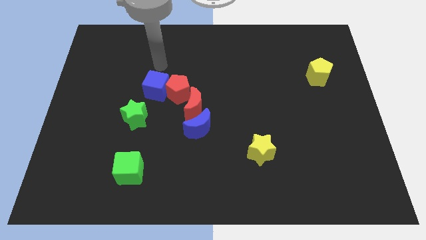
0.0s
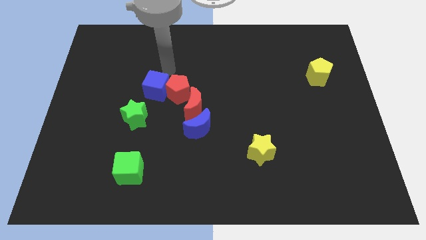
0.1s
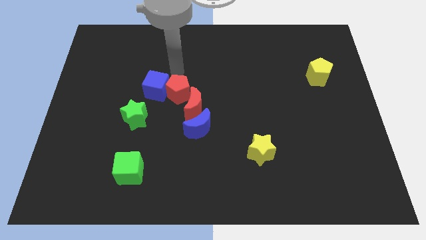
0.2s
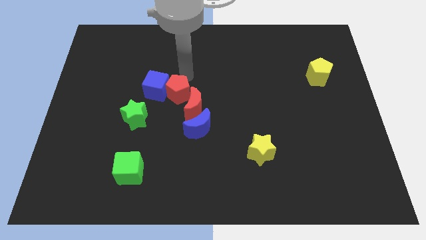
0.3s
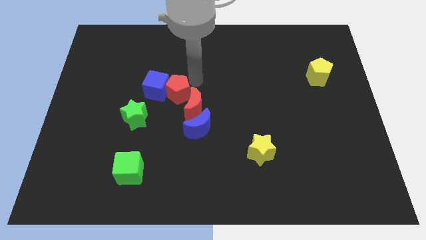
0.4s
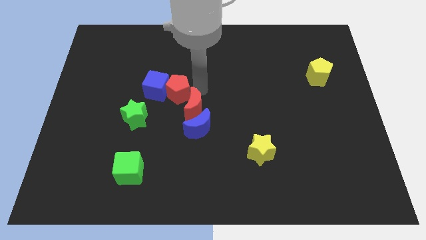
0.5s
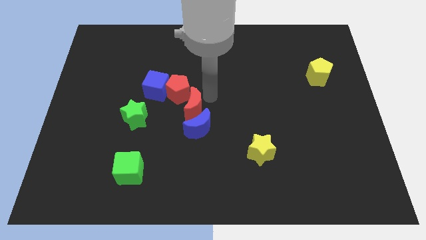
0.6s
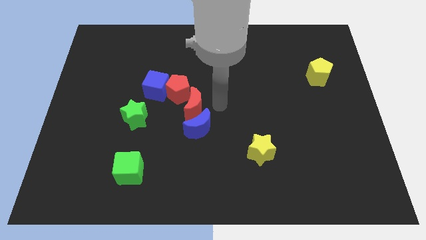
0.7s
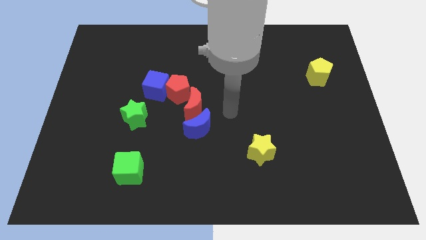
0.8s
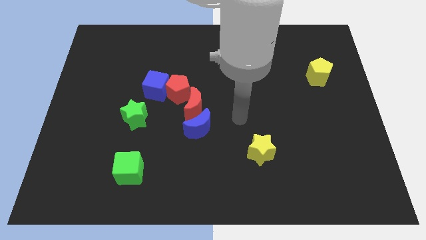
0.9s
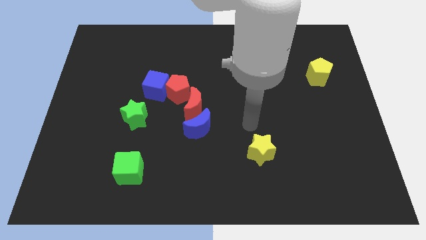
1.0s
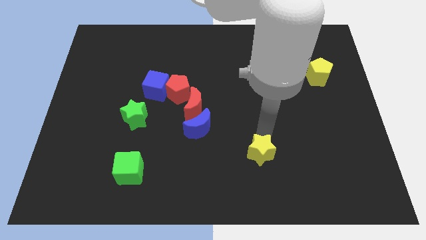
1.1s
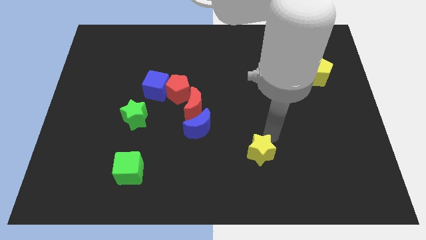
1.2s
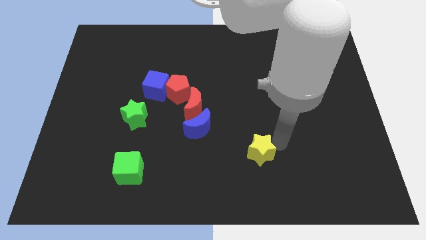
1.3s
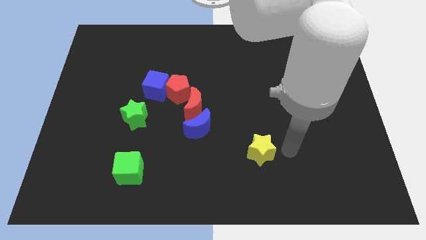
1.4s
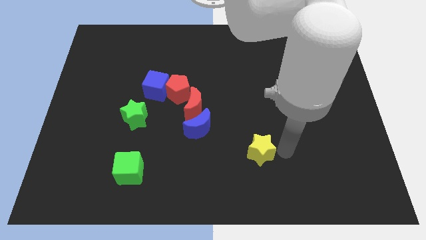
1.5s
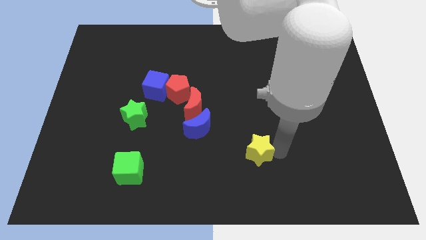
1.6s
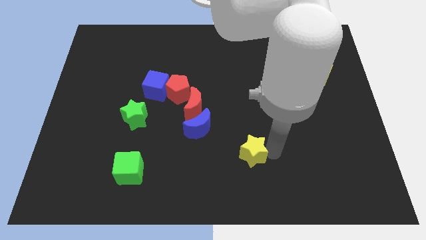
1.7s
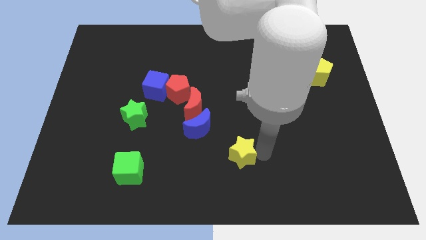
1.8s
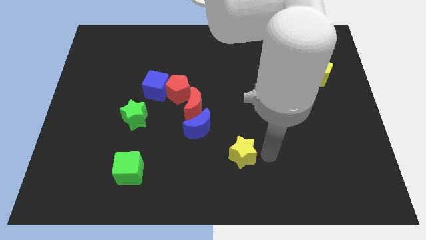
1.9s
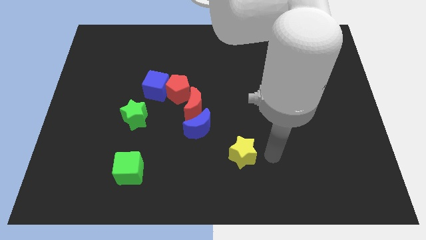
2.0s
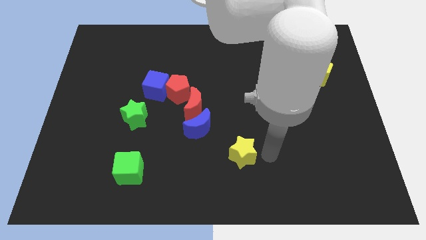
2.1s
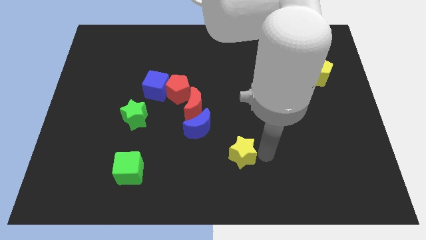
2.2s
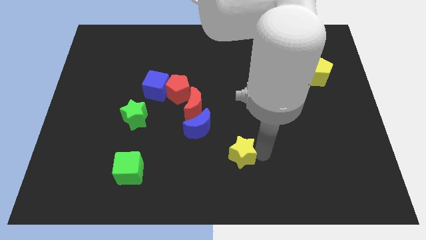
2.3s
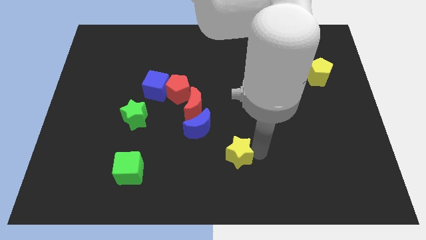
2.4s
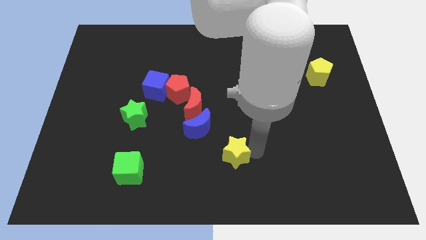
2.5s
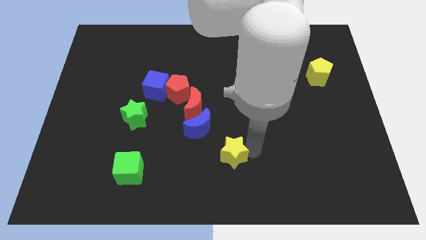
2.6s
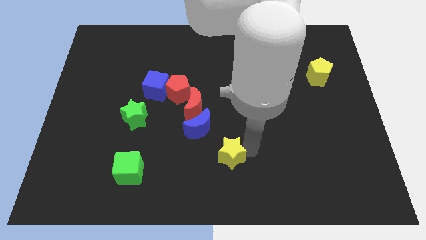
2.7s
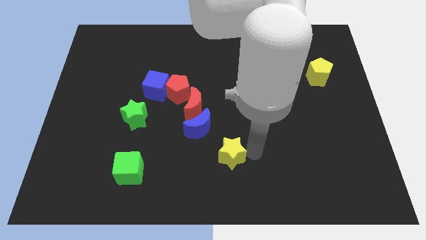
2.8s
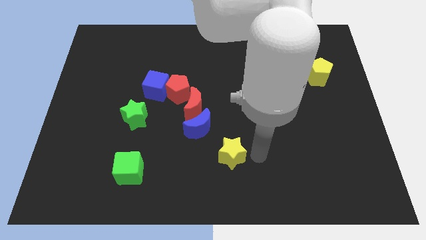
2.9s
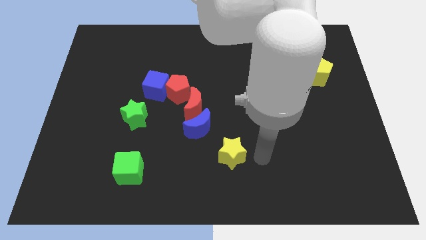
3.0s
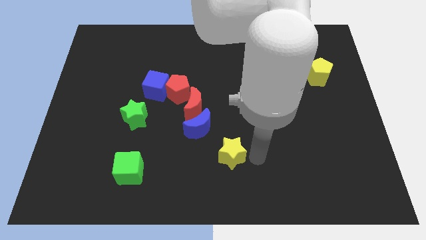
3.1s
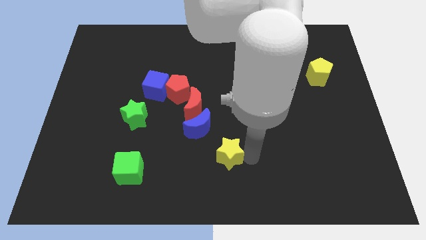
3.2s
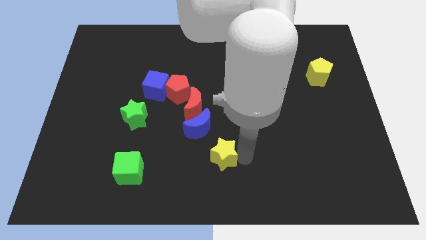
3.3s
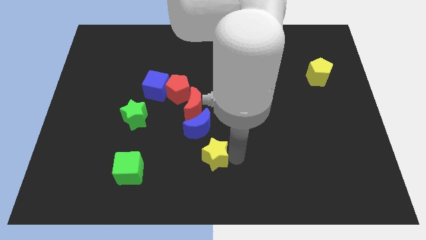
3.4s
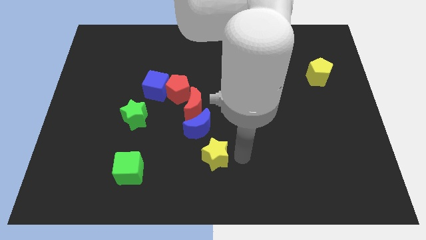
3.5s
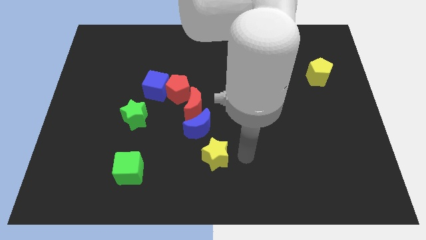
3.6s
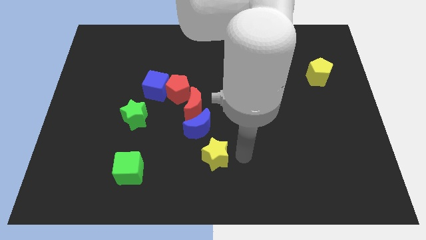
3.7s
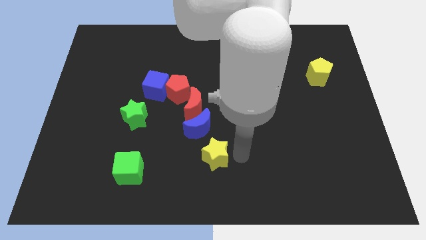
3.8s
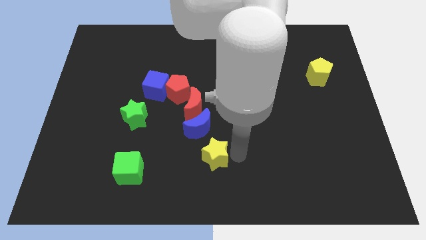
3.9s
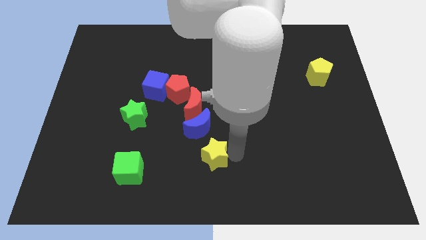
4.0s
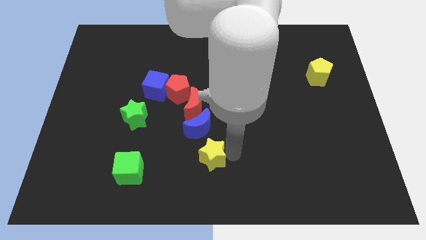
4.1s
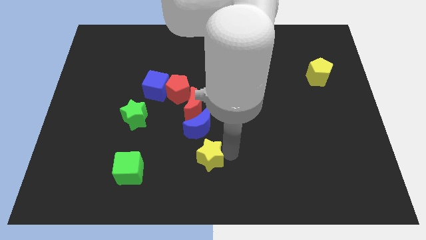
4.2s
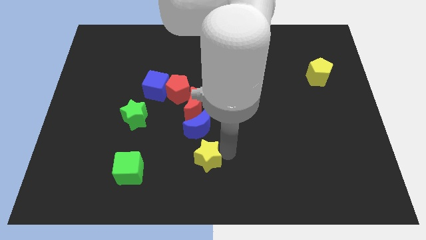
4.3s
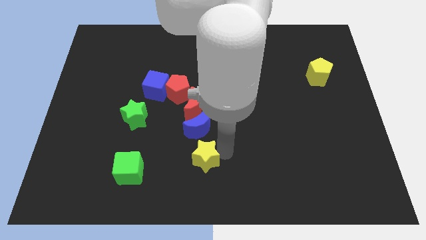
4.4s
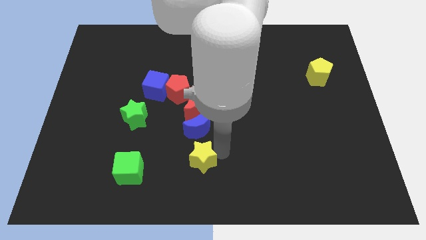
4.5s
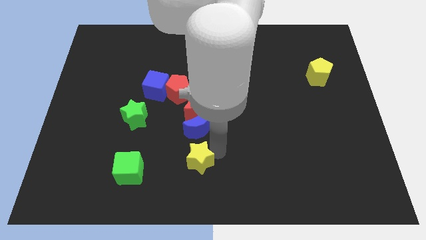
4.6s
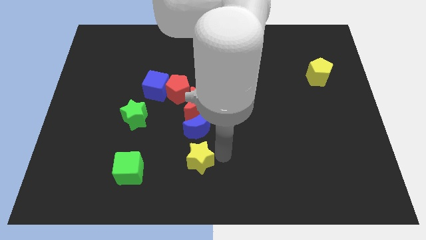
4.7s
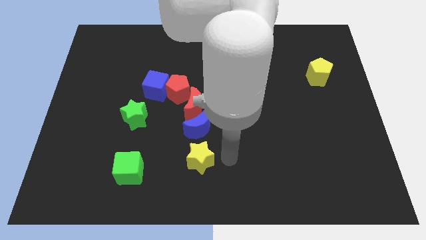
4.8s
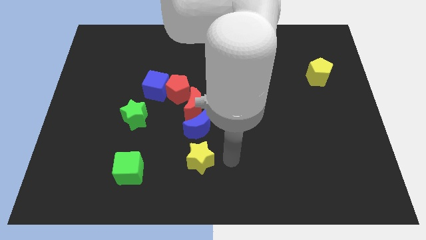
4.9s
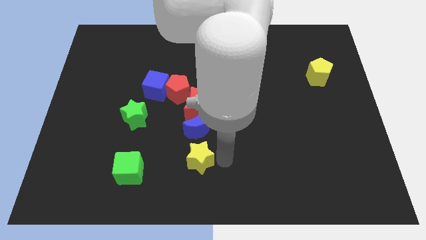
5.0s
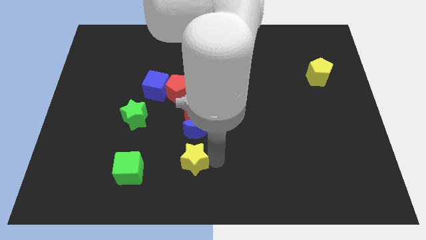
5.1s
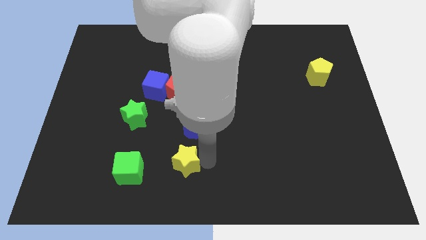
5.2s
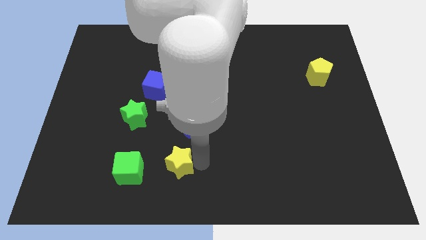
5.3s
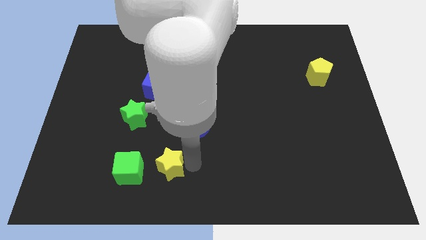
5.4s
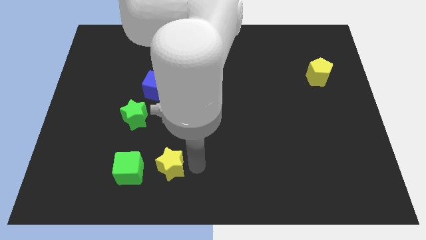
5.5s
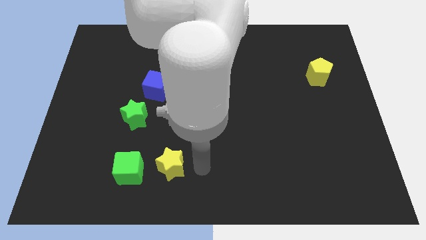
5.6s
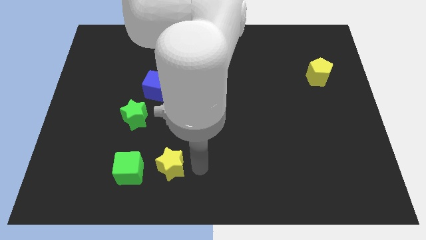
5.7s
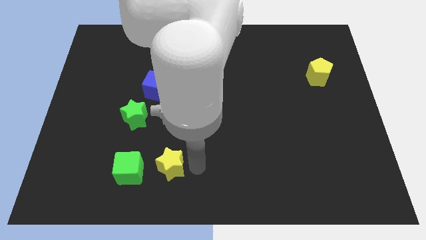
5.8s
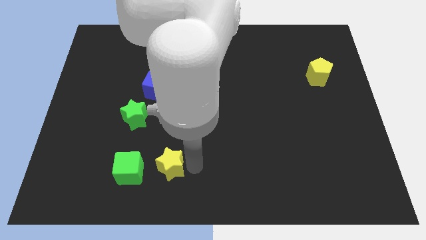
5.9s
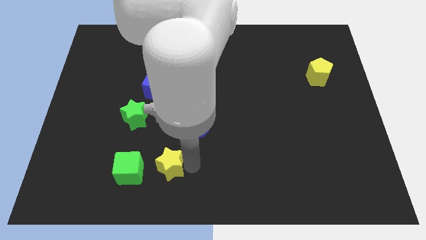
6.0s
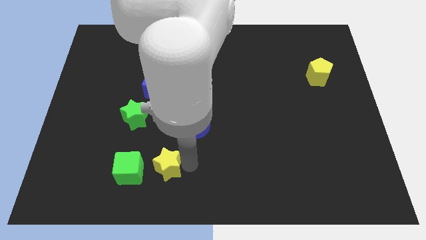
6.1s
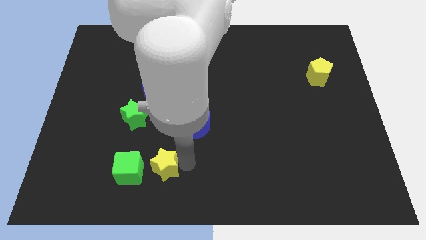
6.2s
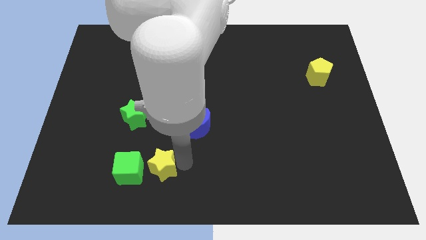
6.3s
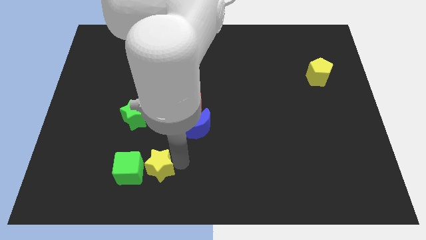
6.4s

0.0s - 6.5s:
slide the yellow star close to the green cube
